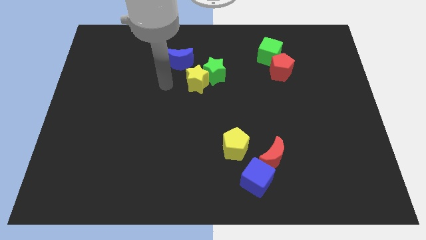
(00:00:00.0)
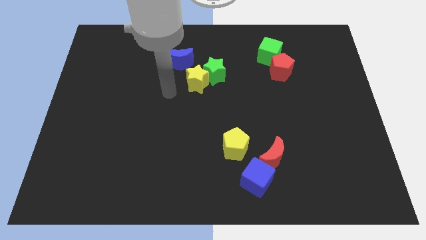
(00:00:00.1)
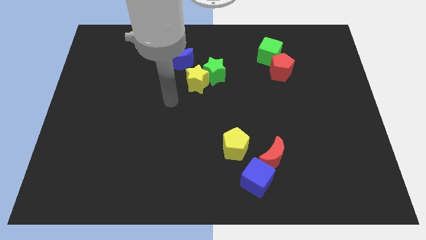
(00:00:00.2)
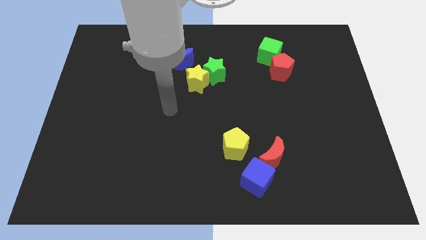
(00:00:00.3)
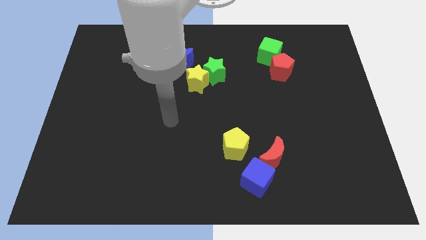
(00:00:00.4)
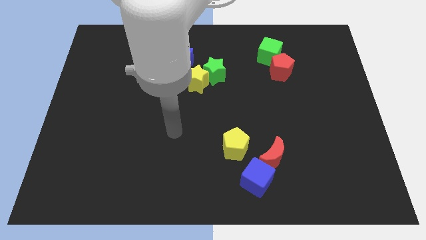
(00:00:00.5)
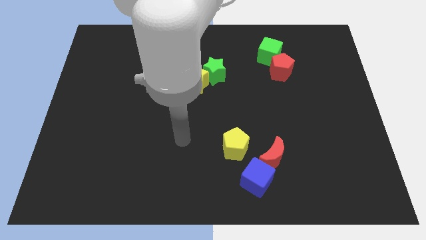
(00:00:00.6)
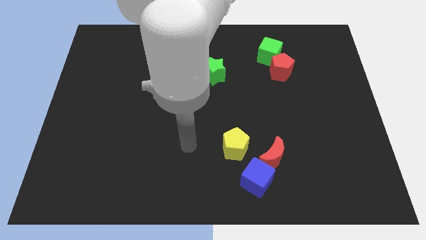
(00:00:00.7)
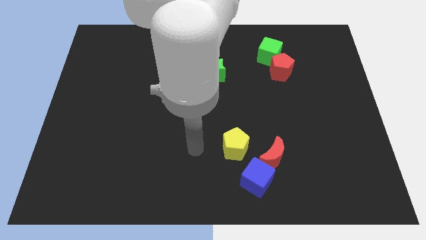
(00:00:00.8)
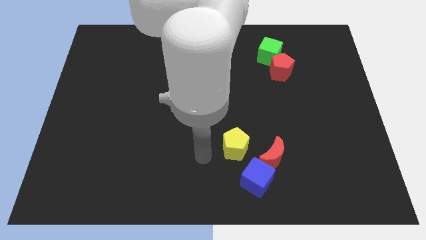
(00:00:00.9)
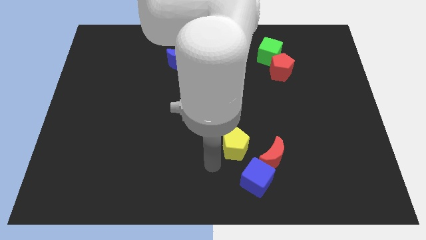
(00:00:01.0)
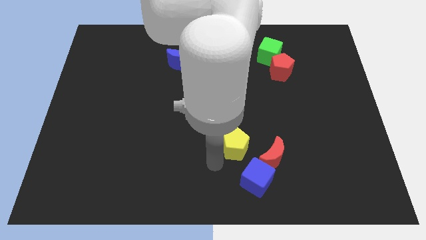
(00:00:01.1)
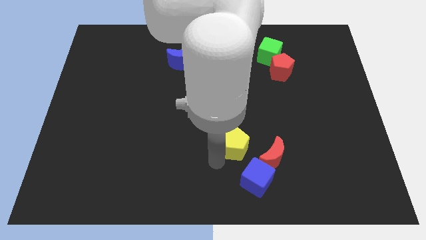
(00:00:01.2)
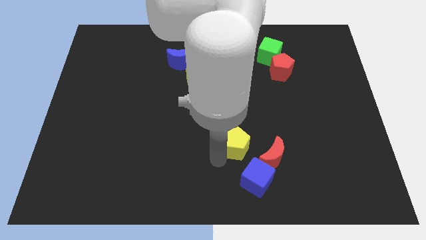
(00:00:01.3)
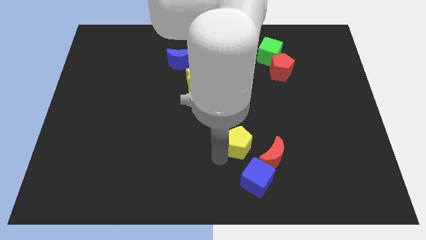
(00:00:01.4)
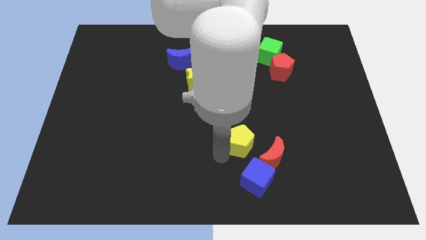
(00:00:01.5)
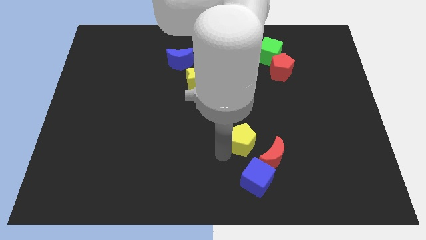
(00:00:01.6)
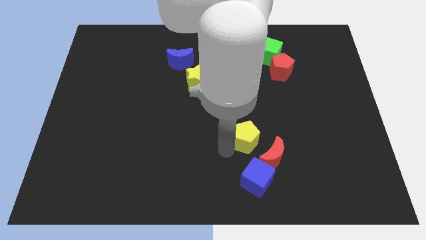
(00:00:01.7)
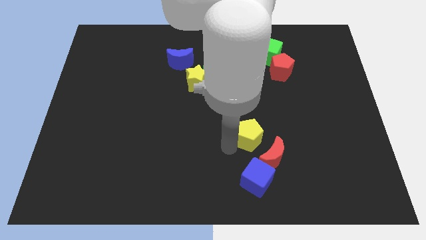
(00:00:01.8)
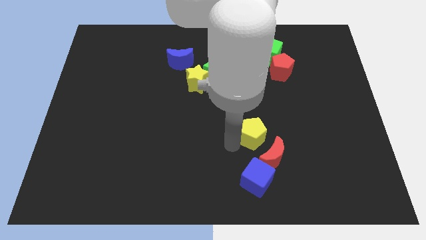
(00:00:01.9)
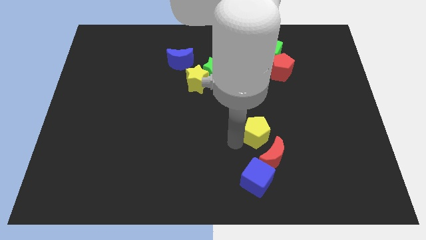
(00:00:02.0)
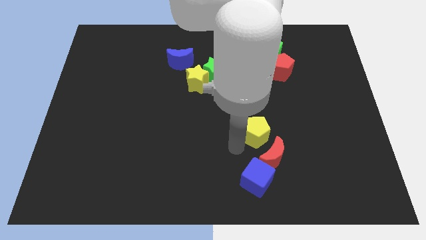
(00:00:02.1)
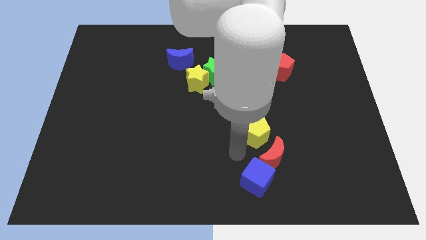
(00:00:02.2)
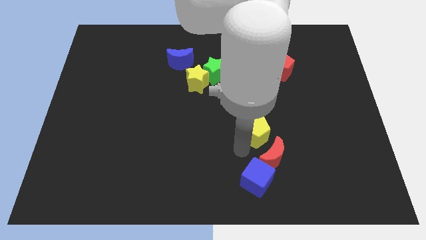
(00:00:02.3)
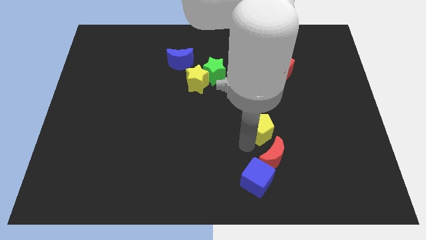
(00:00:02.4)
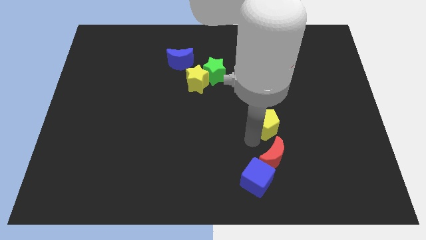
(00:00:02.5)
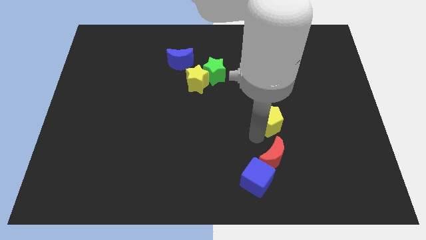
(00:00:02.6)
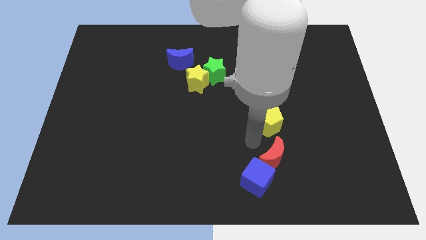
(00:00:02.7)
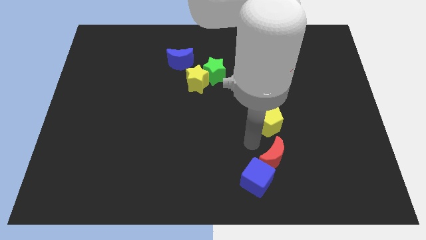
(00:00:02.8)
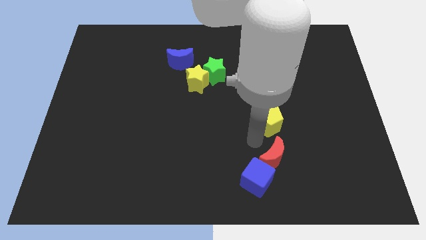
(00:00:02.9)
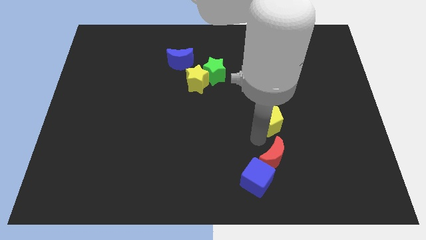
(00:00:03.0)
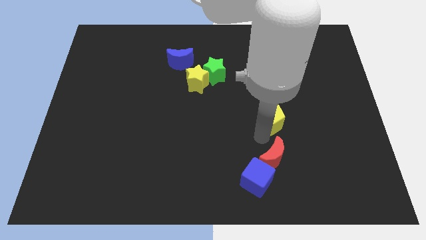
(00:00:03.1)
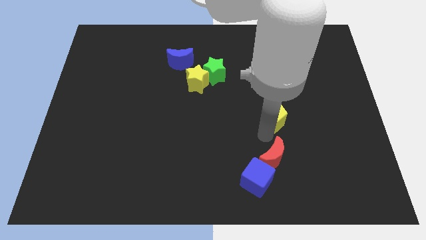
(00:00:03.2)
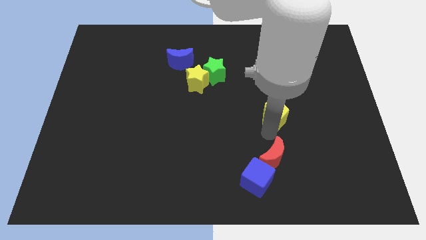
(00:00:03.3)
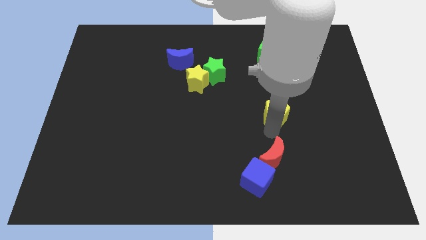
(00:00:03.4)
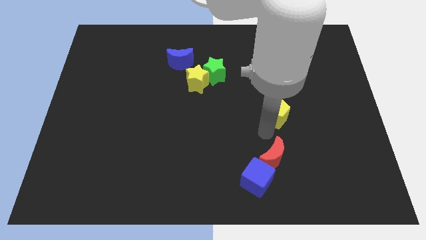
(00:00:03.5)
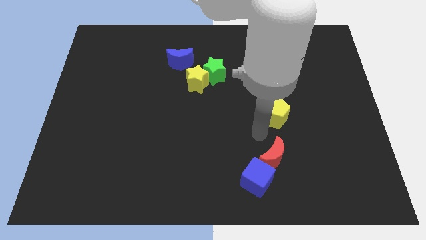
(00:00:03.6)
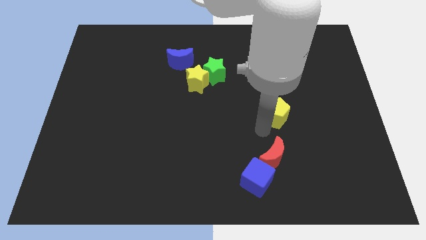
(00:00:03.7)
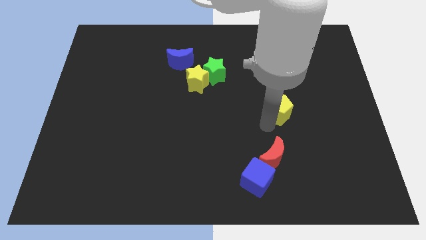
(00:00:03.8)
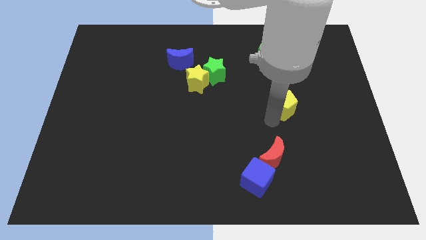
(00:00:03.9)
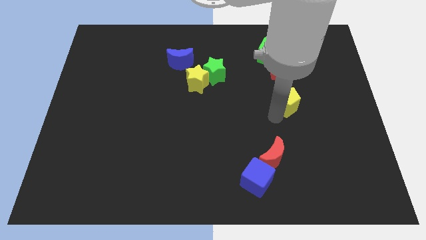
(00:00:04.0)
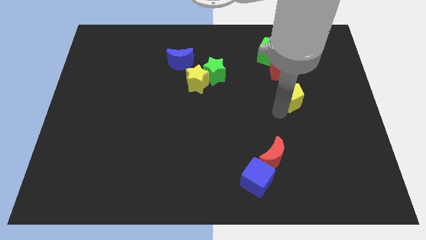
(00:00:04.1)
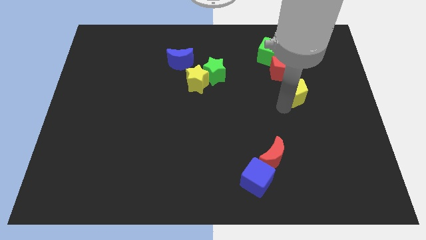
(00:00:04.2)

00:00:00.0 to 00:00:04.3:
slide the yellow pentagon upwards and to the right

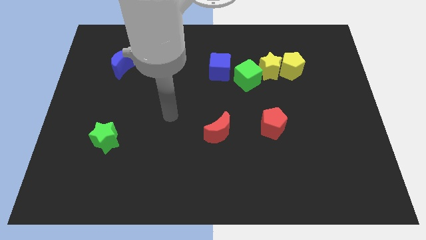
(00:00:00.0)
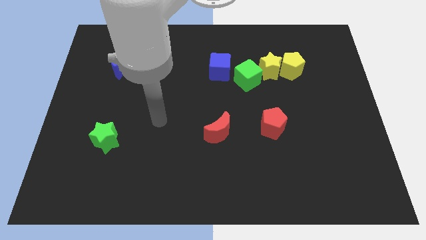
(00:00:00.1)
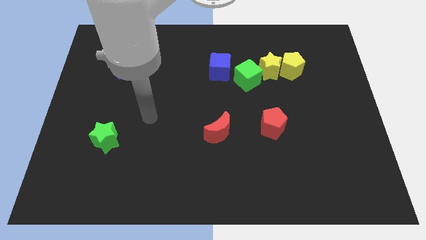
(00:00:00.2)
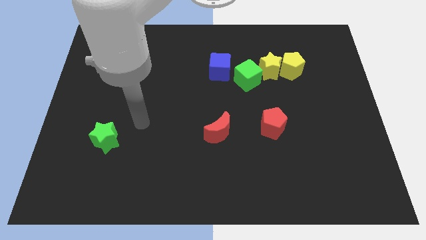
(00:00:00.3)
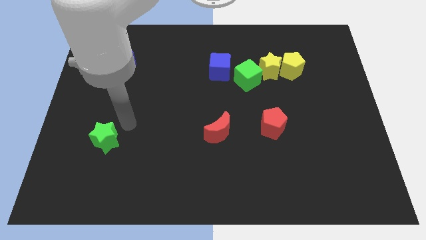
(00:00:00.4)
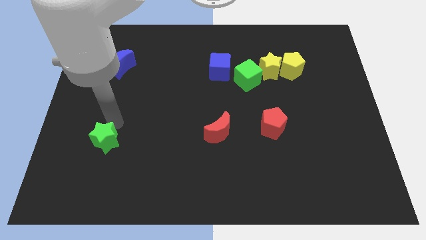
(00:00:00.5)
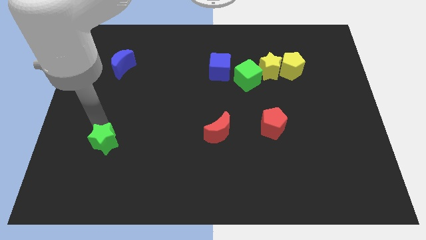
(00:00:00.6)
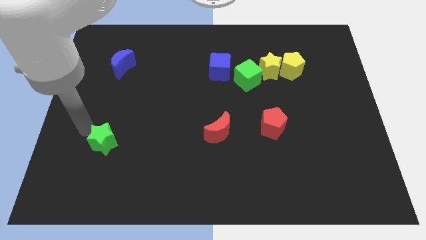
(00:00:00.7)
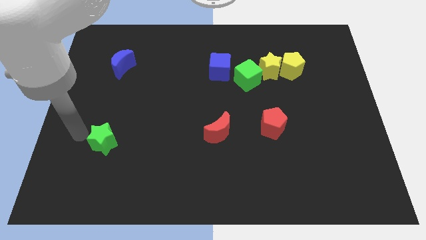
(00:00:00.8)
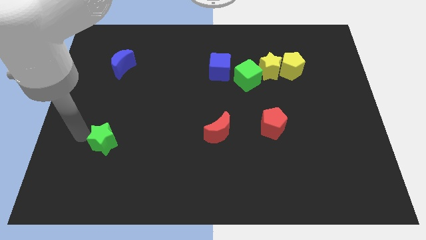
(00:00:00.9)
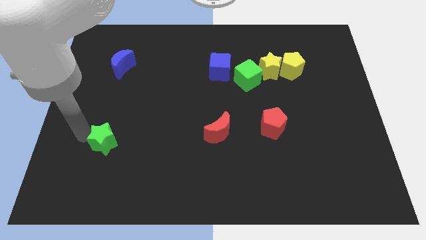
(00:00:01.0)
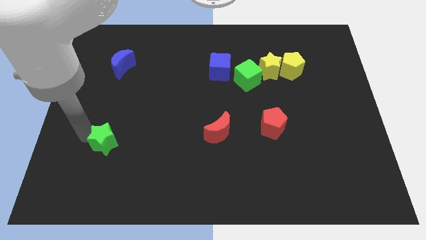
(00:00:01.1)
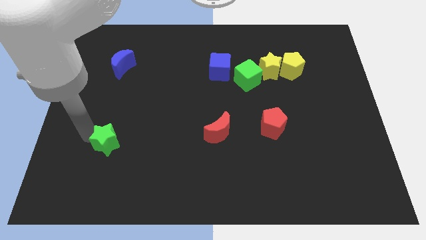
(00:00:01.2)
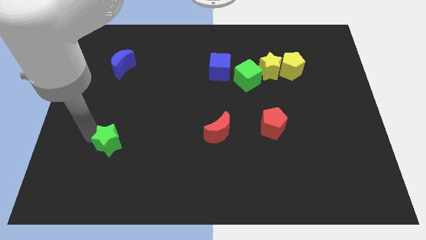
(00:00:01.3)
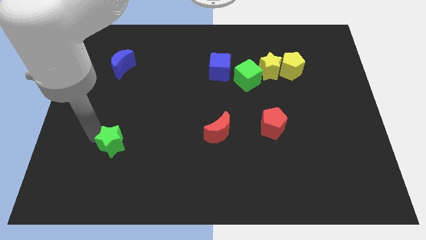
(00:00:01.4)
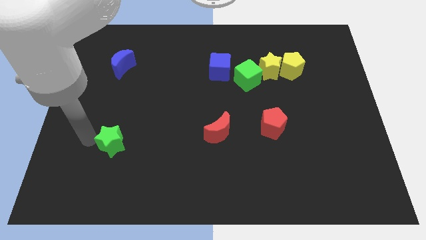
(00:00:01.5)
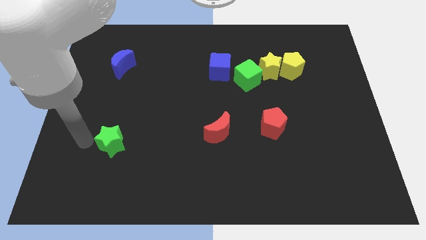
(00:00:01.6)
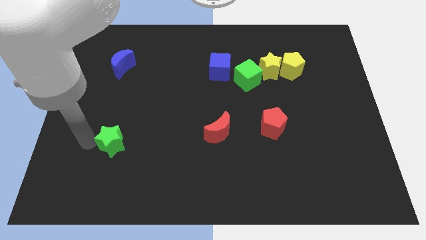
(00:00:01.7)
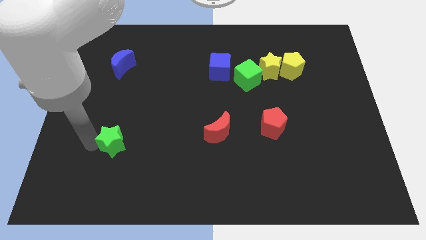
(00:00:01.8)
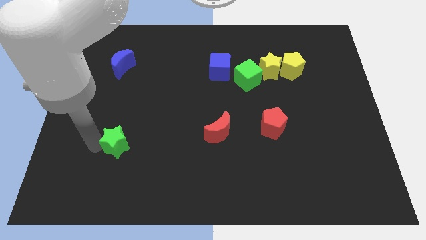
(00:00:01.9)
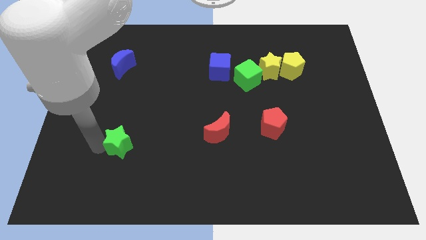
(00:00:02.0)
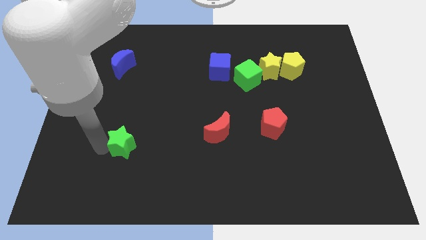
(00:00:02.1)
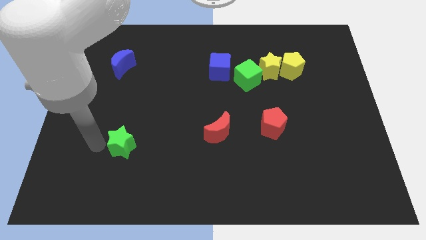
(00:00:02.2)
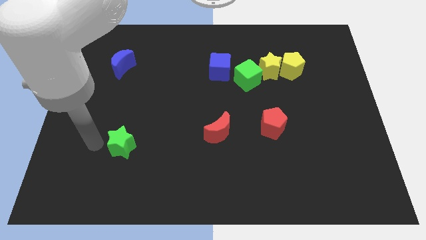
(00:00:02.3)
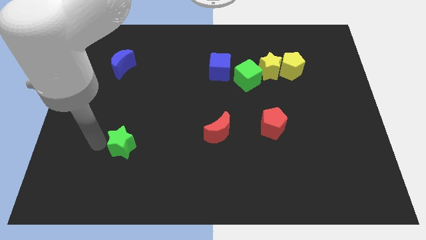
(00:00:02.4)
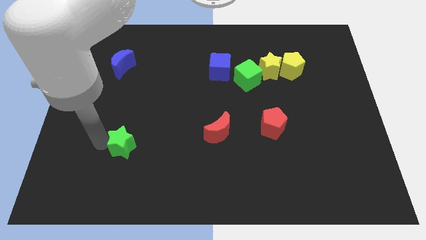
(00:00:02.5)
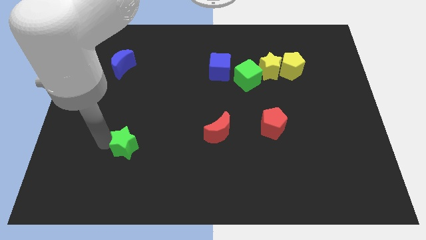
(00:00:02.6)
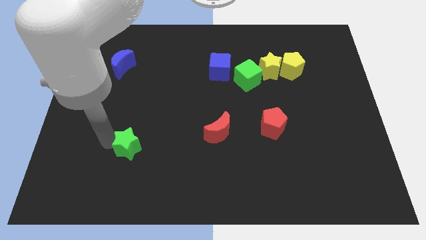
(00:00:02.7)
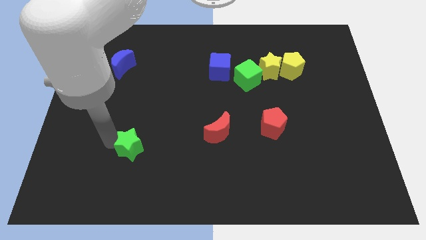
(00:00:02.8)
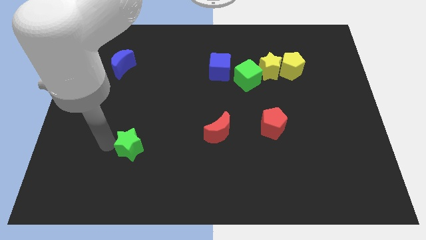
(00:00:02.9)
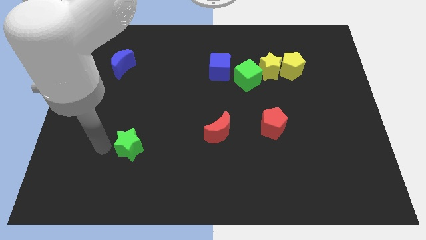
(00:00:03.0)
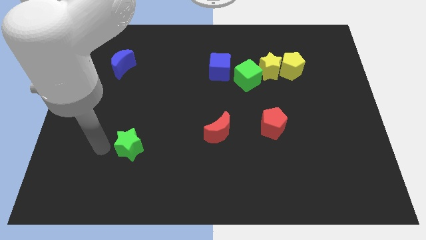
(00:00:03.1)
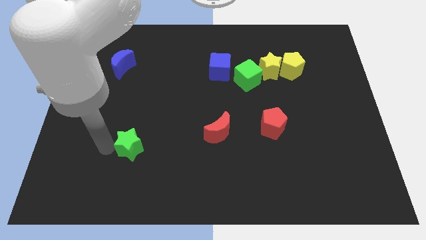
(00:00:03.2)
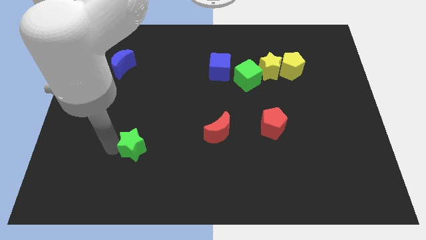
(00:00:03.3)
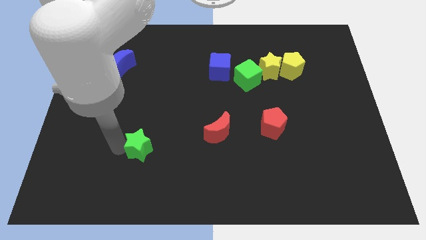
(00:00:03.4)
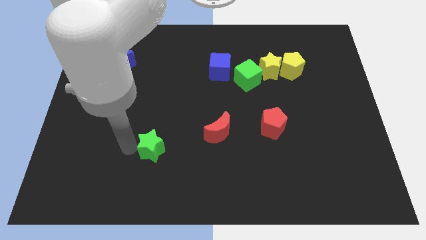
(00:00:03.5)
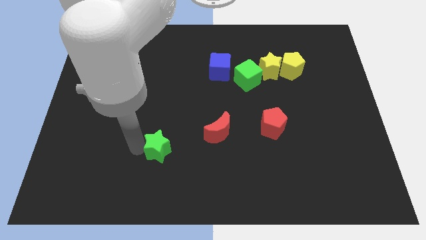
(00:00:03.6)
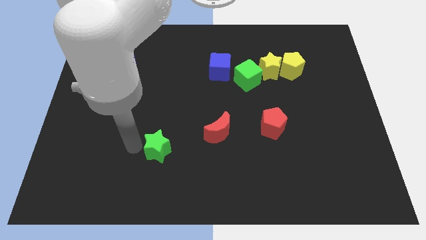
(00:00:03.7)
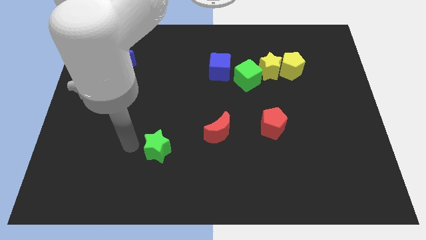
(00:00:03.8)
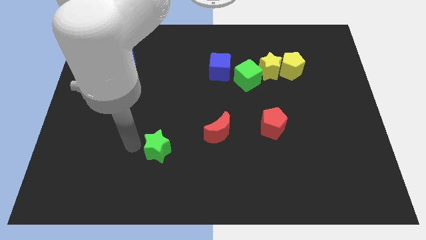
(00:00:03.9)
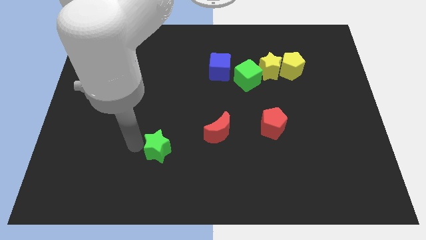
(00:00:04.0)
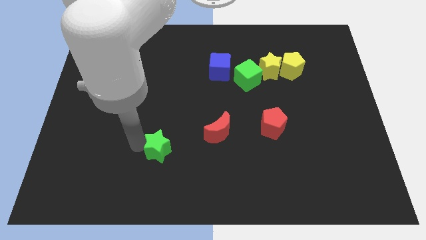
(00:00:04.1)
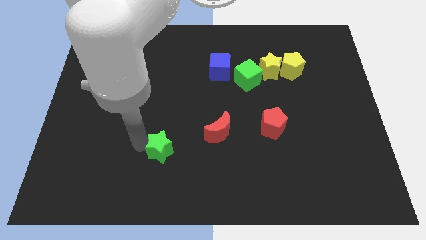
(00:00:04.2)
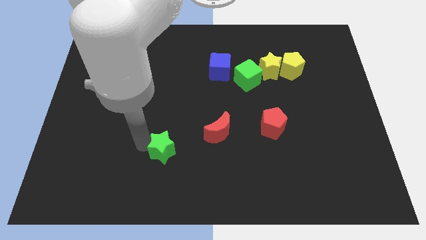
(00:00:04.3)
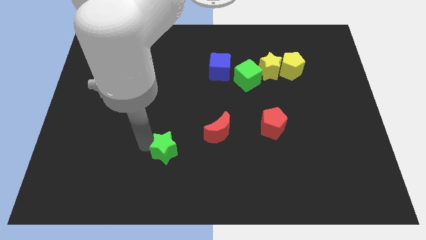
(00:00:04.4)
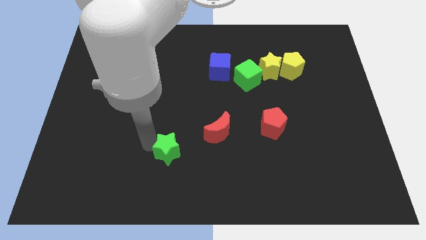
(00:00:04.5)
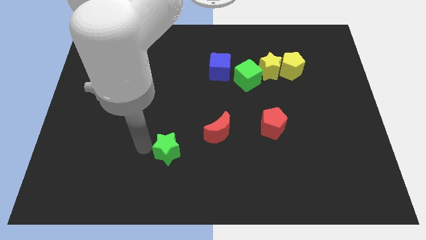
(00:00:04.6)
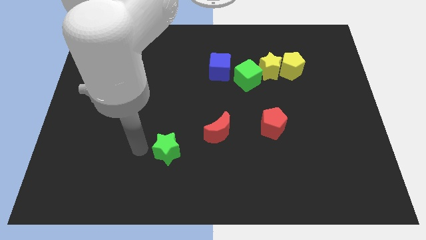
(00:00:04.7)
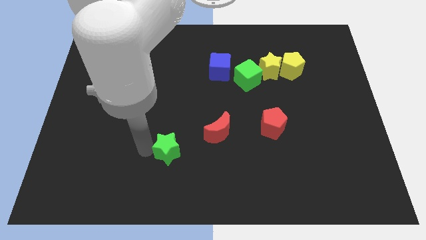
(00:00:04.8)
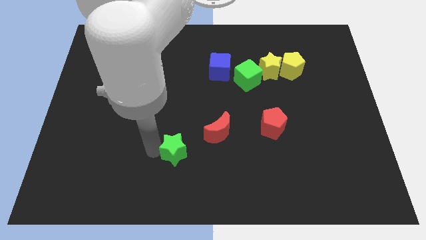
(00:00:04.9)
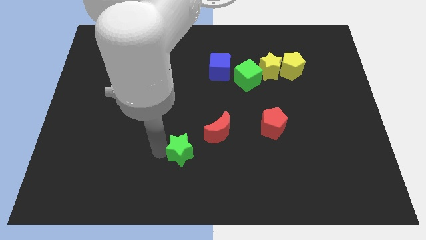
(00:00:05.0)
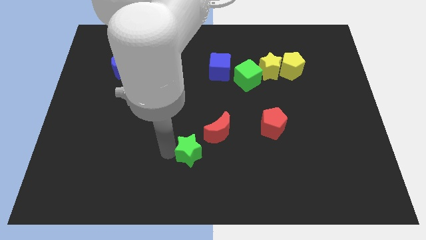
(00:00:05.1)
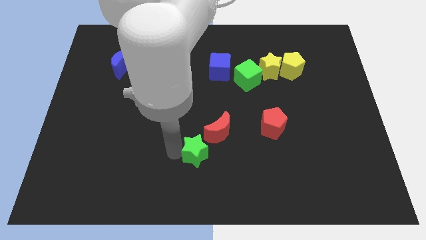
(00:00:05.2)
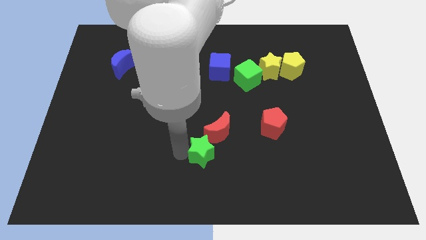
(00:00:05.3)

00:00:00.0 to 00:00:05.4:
slide the green star to the right
